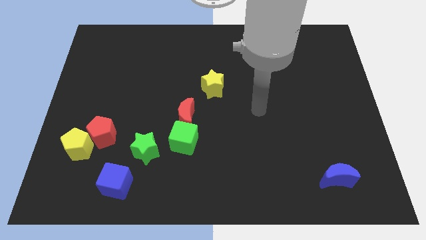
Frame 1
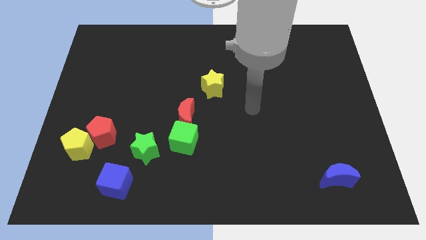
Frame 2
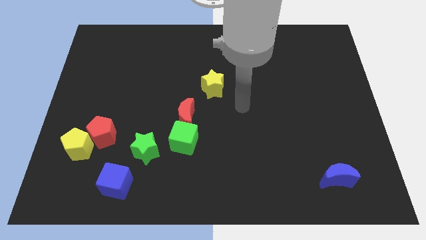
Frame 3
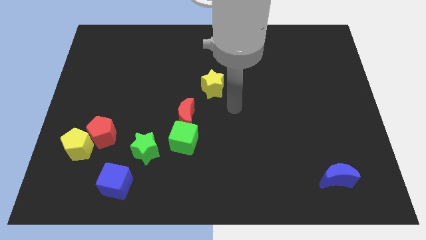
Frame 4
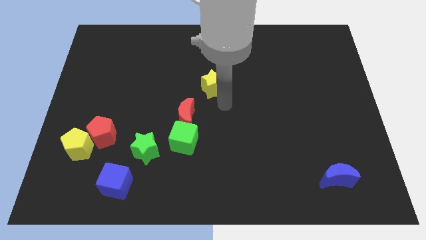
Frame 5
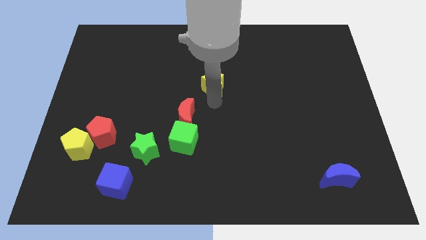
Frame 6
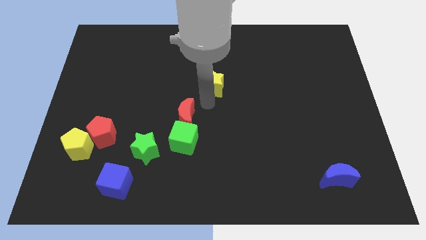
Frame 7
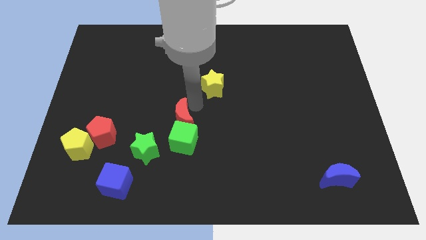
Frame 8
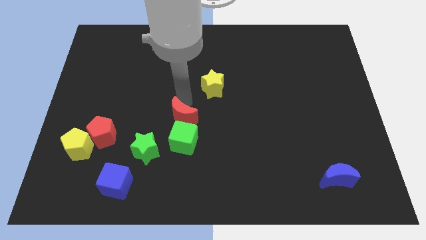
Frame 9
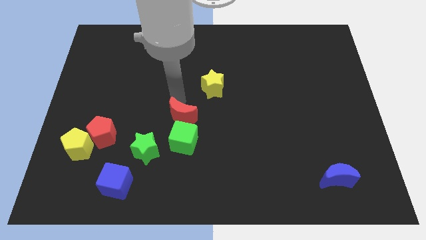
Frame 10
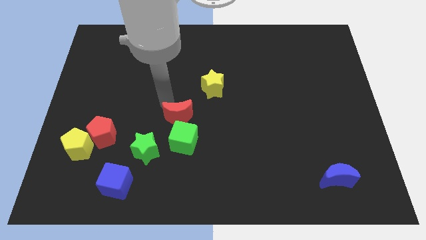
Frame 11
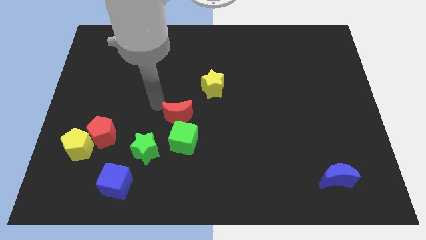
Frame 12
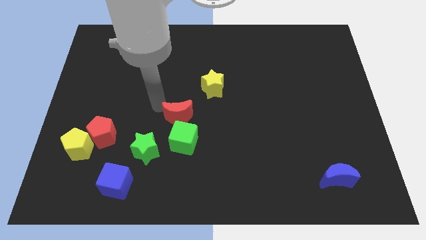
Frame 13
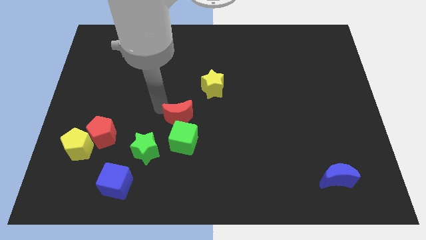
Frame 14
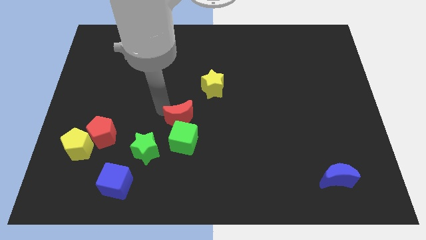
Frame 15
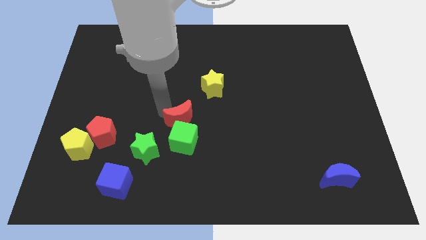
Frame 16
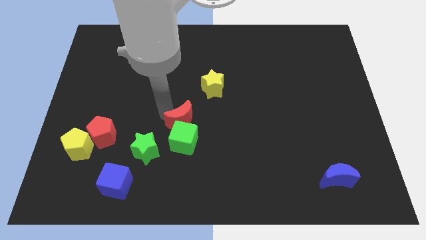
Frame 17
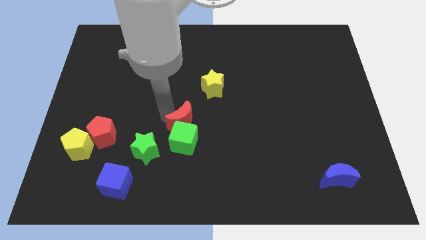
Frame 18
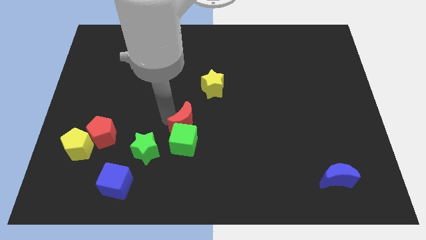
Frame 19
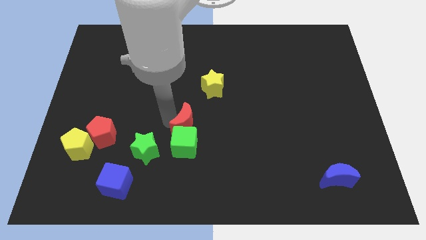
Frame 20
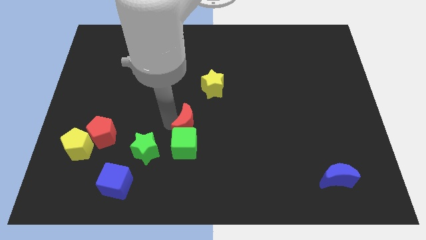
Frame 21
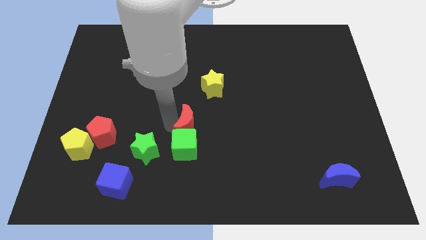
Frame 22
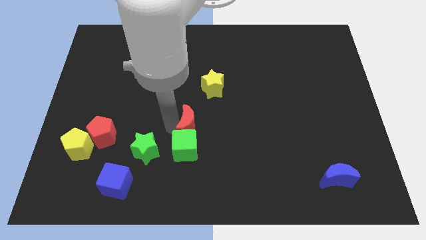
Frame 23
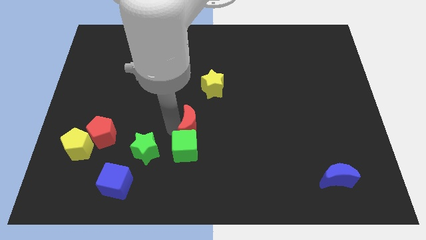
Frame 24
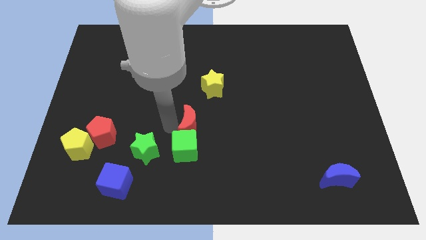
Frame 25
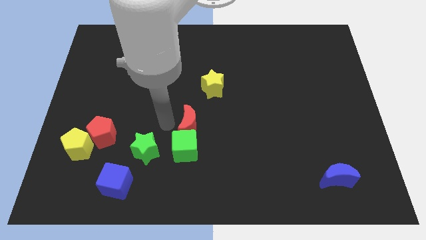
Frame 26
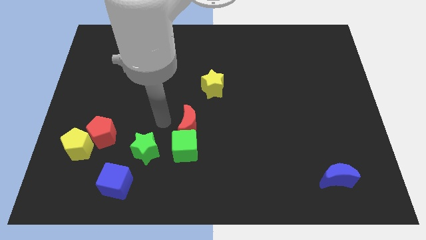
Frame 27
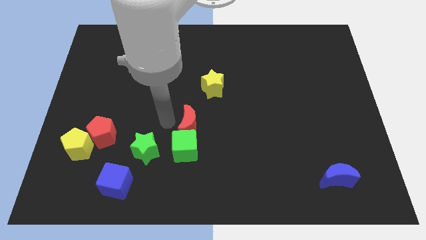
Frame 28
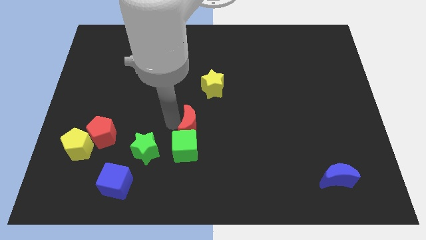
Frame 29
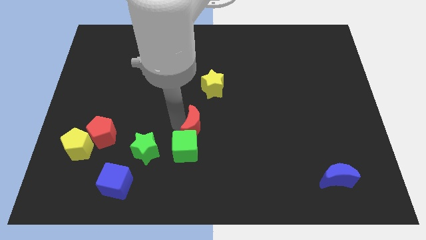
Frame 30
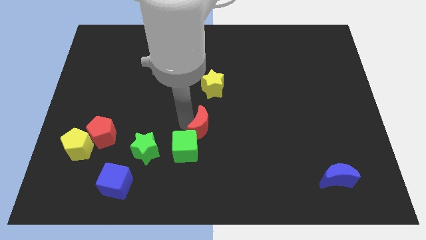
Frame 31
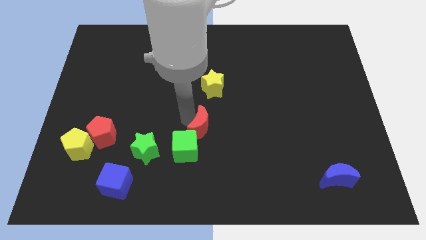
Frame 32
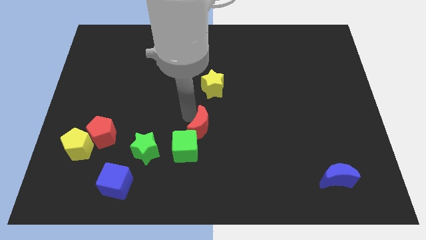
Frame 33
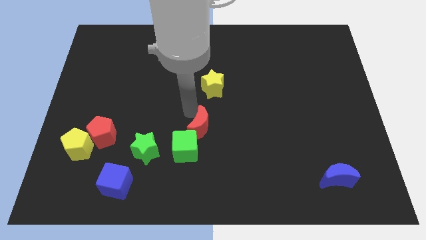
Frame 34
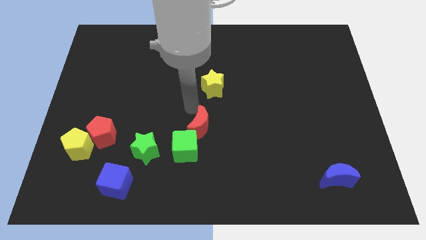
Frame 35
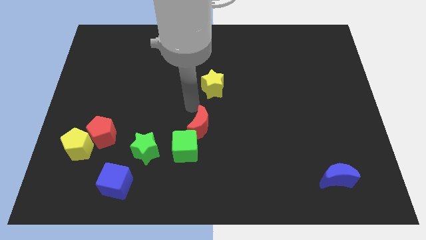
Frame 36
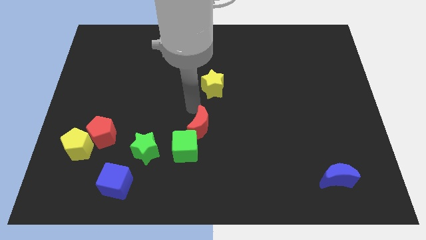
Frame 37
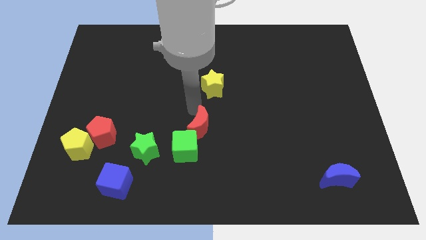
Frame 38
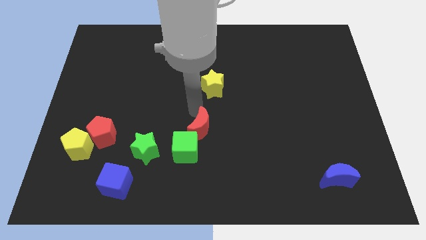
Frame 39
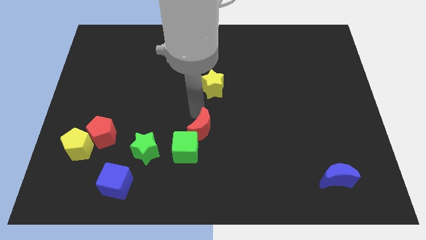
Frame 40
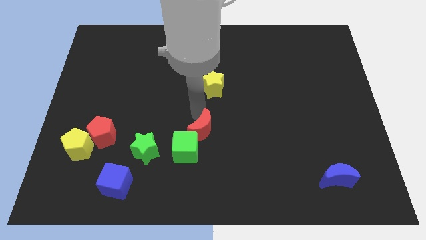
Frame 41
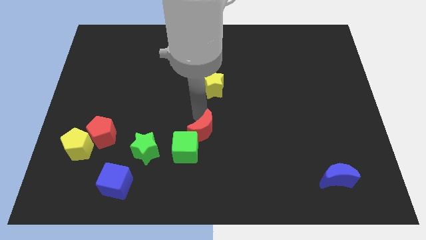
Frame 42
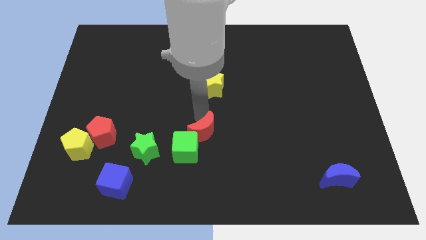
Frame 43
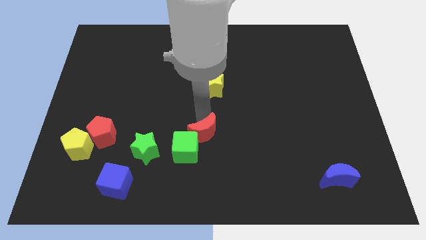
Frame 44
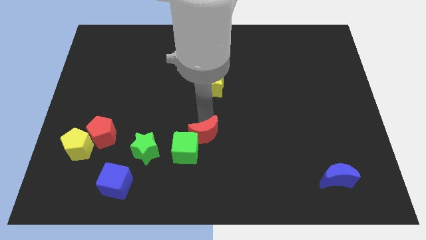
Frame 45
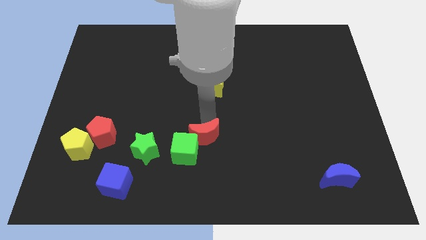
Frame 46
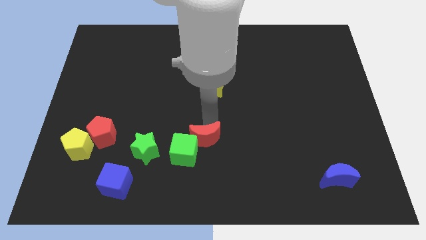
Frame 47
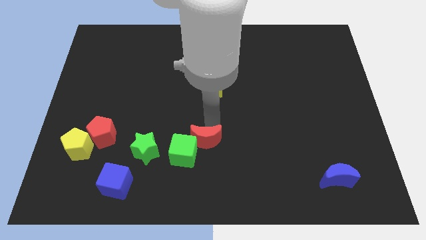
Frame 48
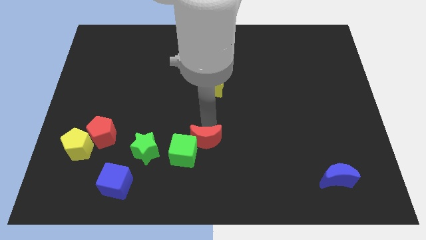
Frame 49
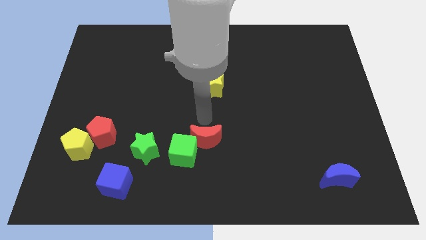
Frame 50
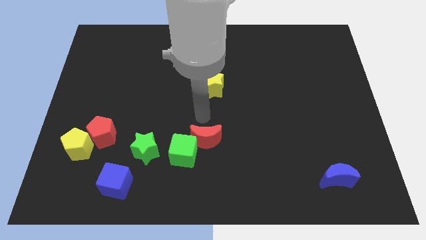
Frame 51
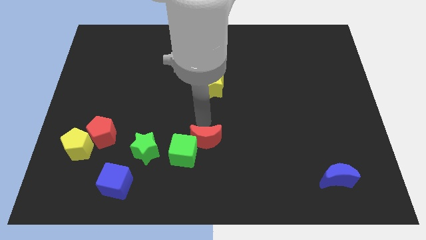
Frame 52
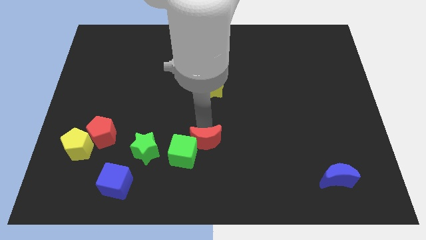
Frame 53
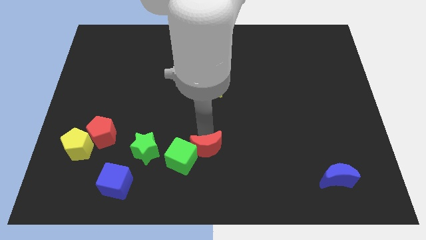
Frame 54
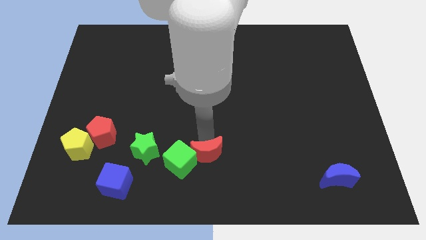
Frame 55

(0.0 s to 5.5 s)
push the red moon to the bottom
